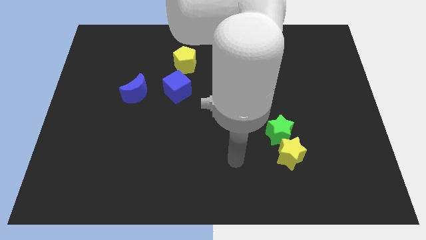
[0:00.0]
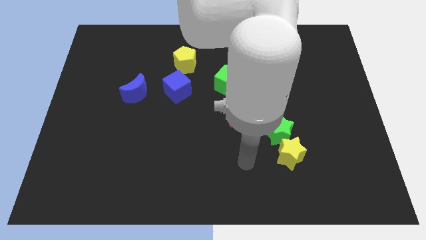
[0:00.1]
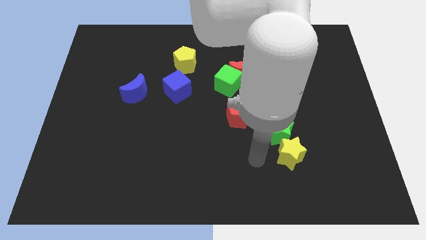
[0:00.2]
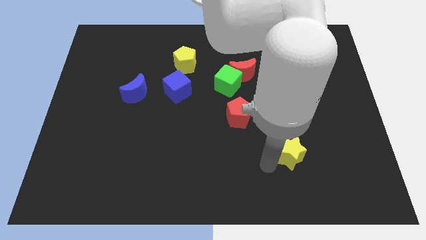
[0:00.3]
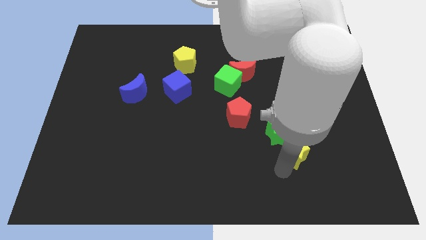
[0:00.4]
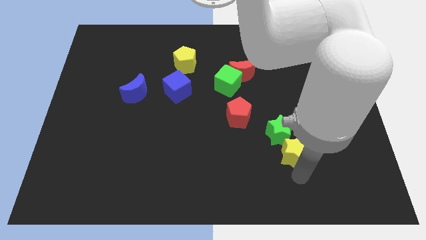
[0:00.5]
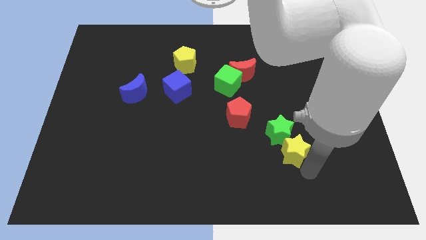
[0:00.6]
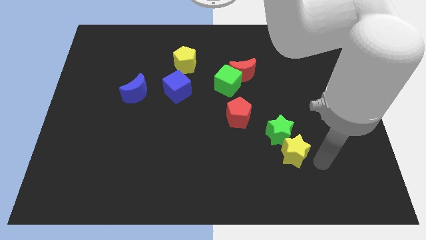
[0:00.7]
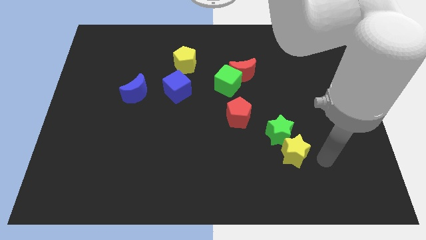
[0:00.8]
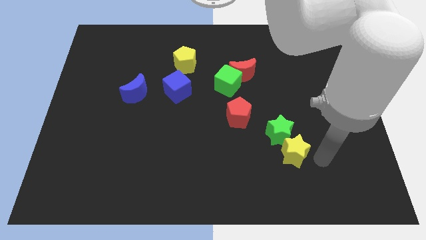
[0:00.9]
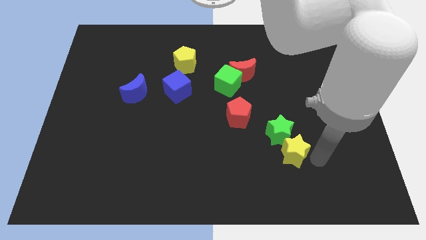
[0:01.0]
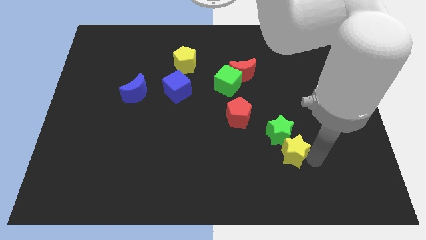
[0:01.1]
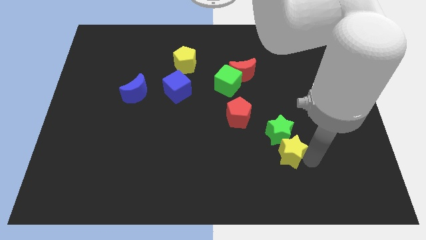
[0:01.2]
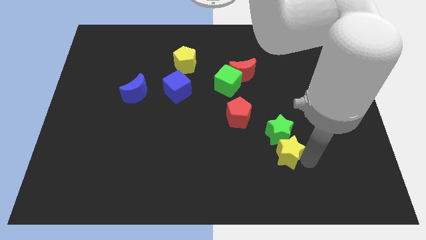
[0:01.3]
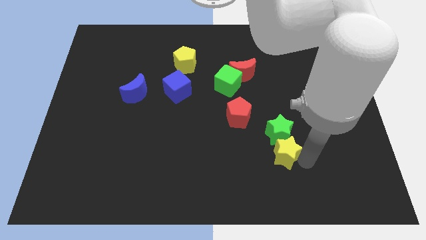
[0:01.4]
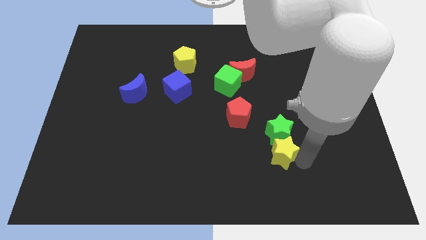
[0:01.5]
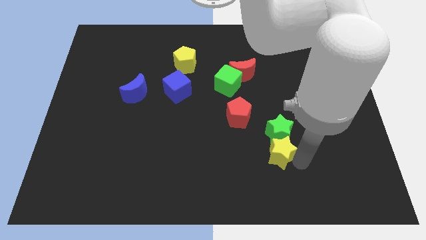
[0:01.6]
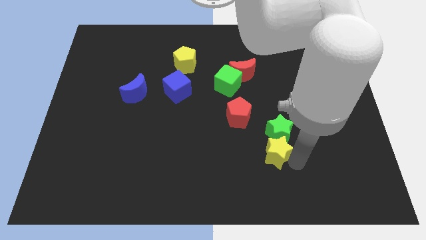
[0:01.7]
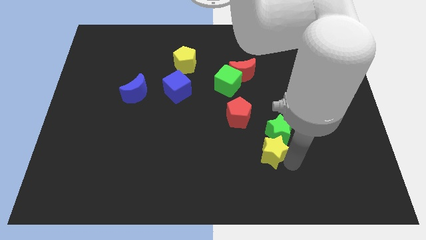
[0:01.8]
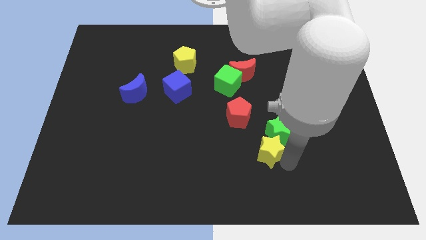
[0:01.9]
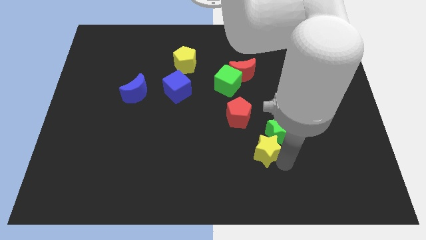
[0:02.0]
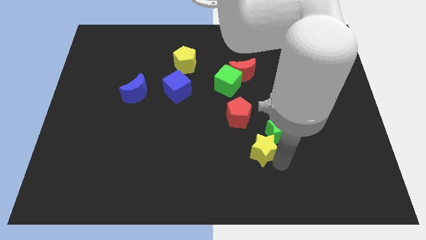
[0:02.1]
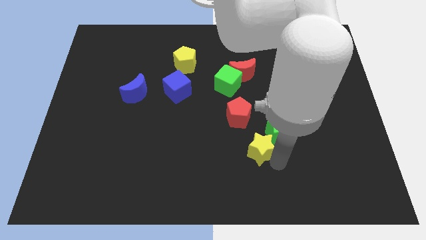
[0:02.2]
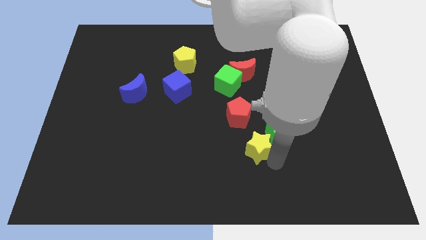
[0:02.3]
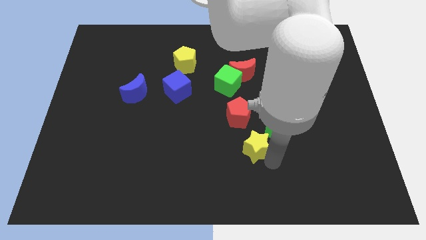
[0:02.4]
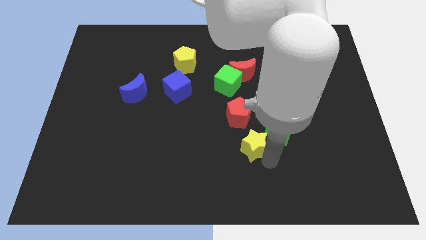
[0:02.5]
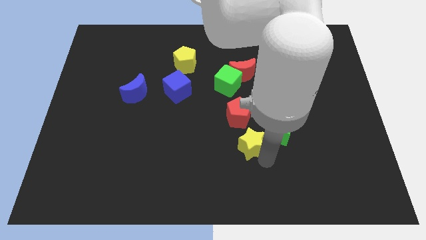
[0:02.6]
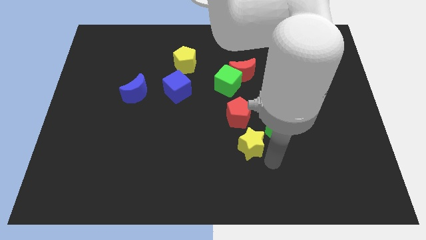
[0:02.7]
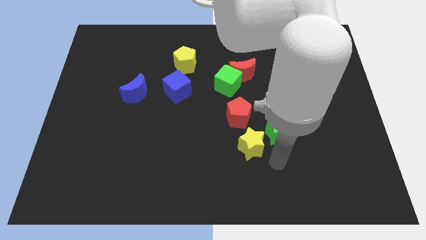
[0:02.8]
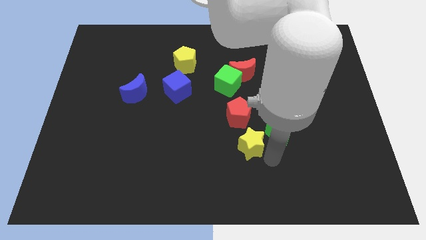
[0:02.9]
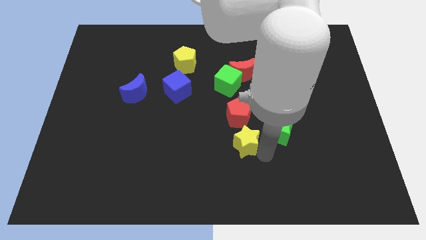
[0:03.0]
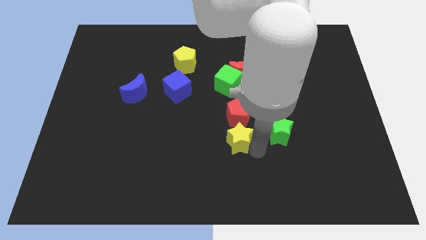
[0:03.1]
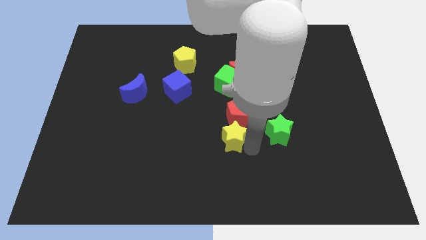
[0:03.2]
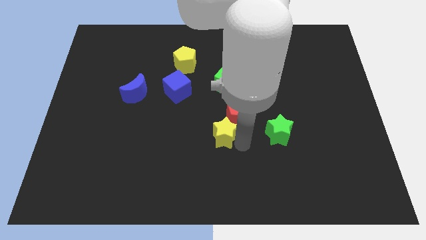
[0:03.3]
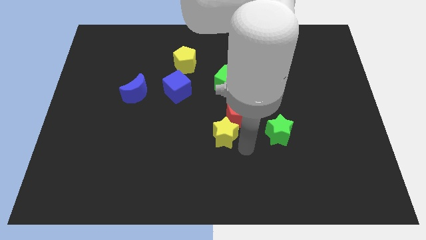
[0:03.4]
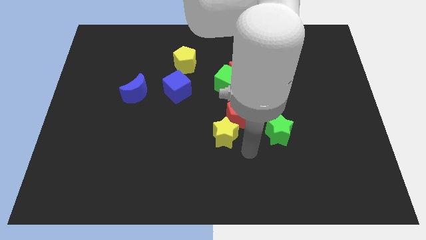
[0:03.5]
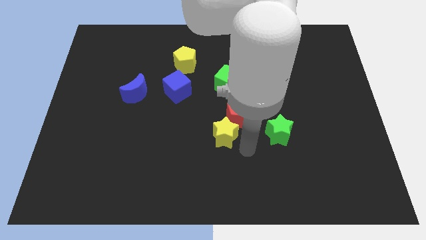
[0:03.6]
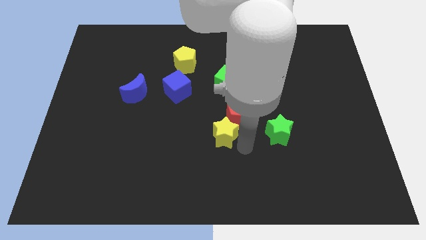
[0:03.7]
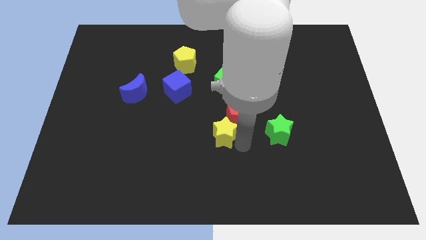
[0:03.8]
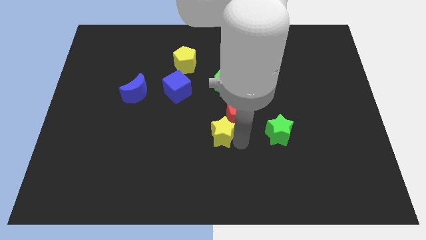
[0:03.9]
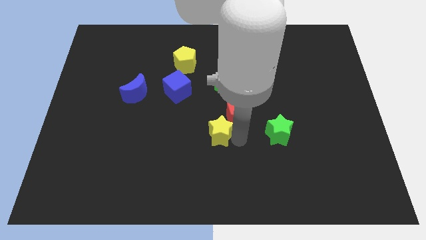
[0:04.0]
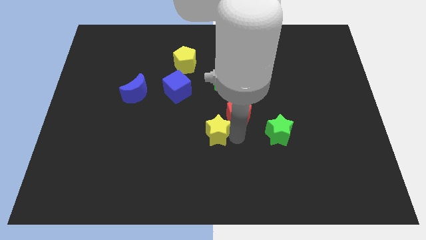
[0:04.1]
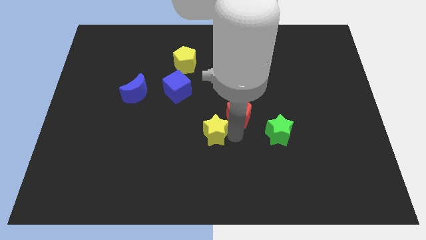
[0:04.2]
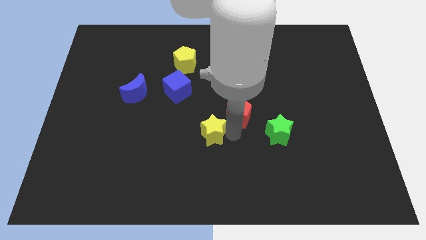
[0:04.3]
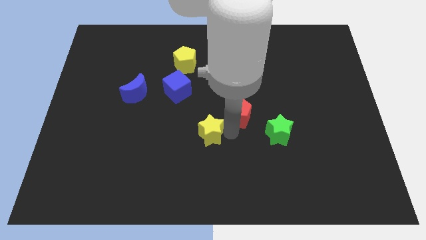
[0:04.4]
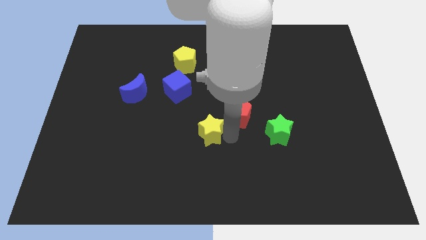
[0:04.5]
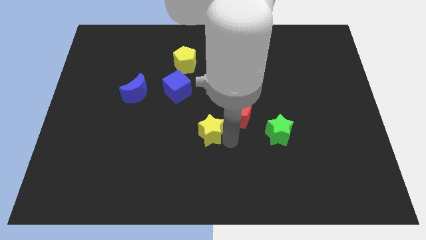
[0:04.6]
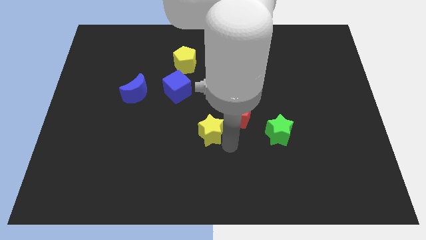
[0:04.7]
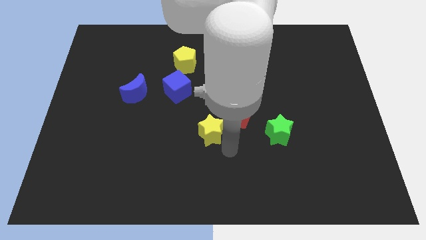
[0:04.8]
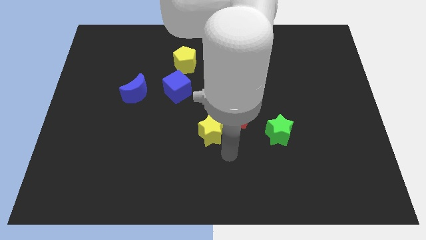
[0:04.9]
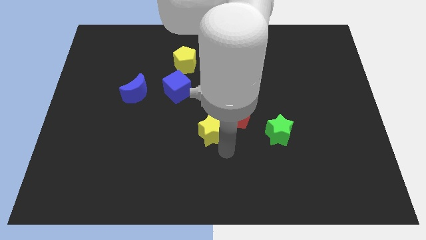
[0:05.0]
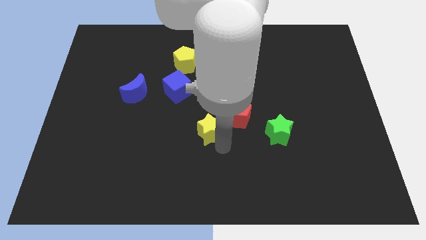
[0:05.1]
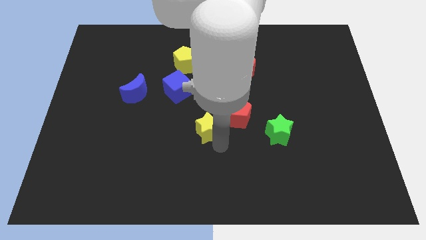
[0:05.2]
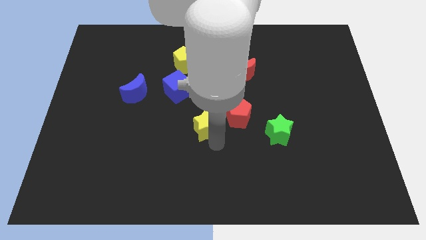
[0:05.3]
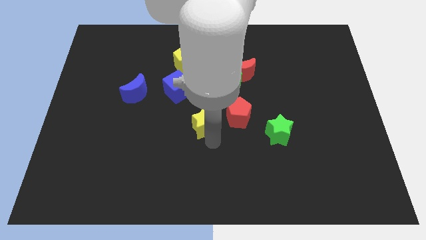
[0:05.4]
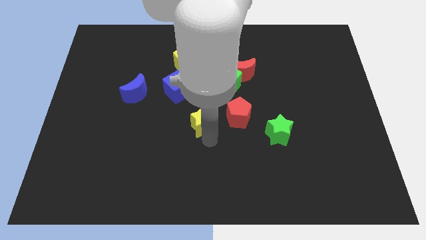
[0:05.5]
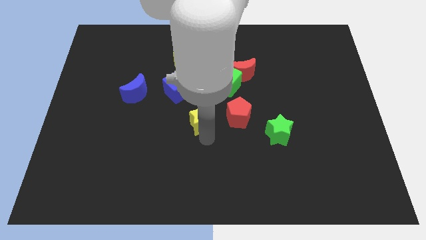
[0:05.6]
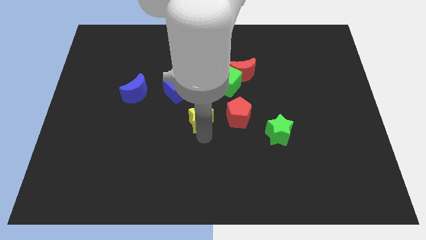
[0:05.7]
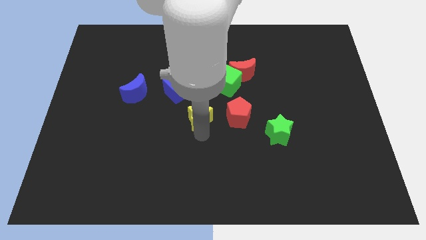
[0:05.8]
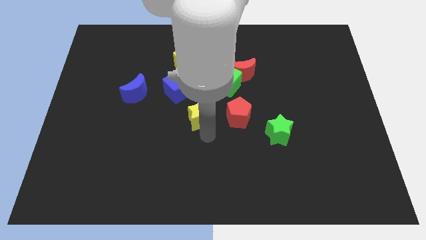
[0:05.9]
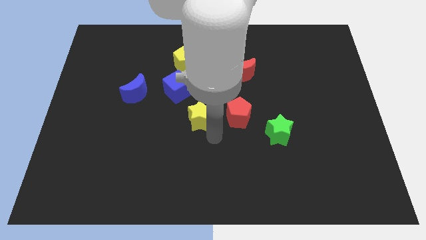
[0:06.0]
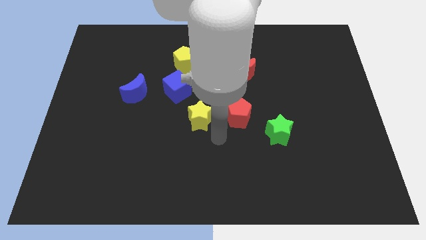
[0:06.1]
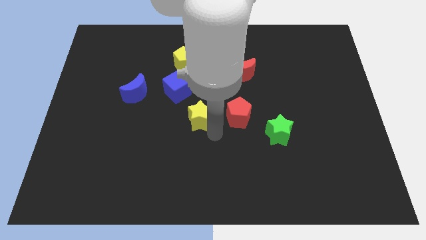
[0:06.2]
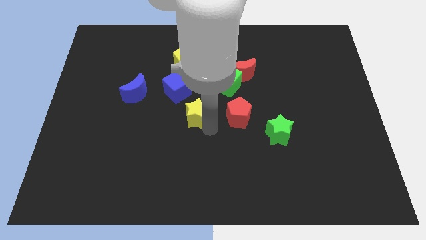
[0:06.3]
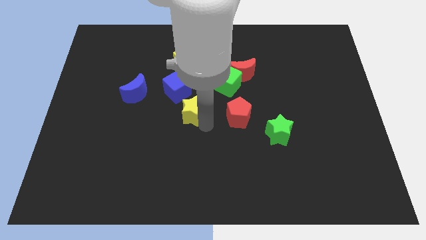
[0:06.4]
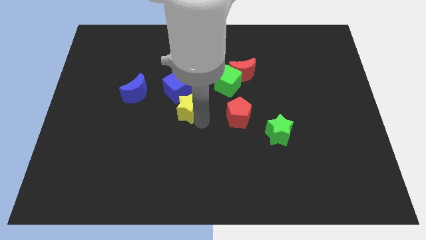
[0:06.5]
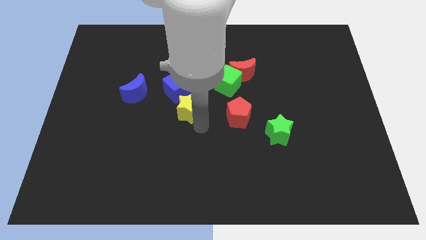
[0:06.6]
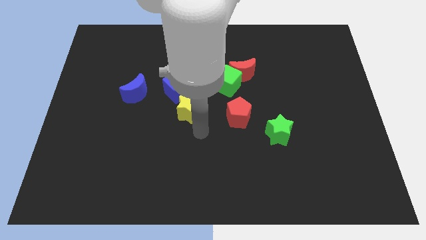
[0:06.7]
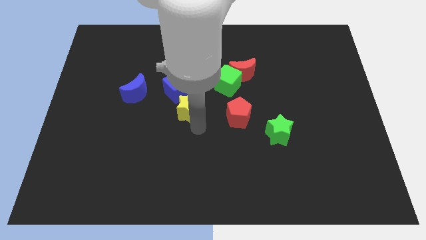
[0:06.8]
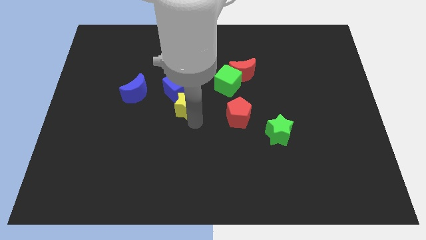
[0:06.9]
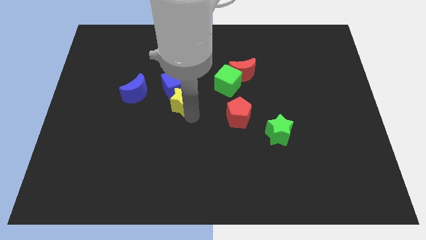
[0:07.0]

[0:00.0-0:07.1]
slide the yellow star next to the blue cube
